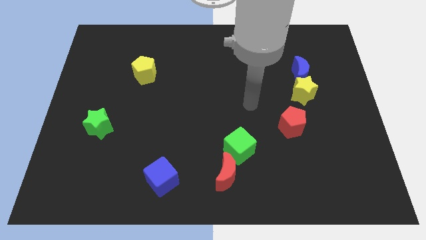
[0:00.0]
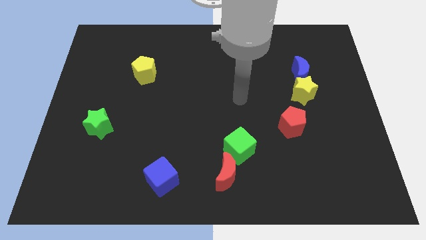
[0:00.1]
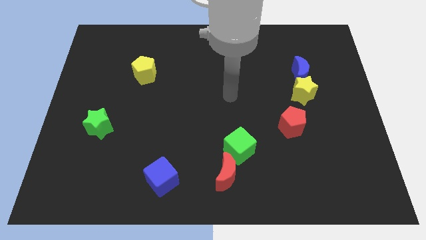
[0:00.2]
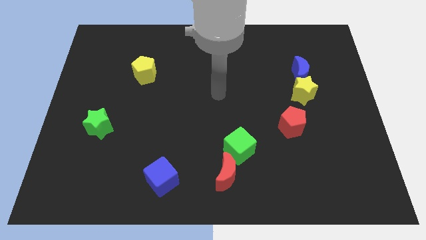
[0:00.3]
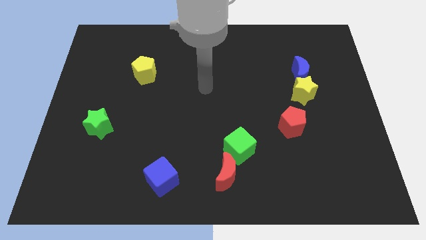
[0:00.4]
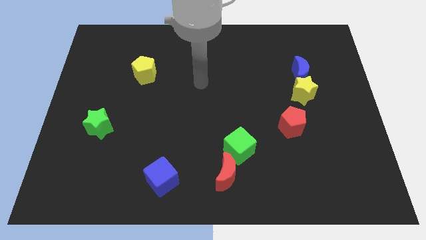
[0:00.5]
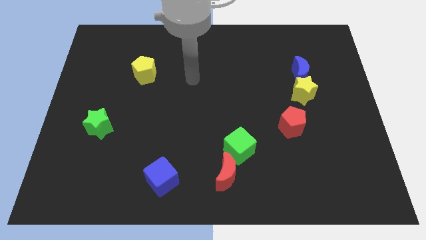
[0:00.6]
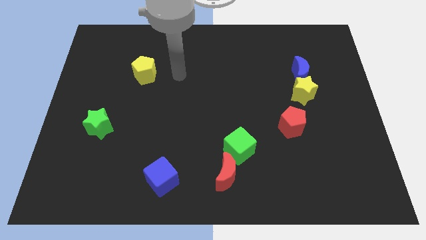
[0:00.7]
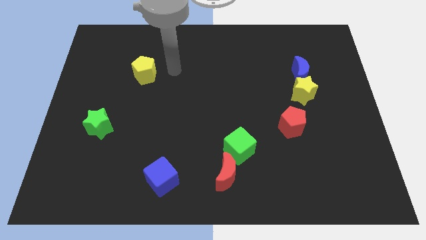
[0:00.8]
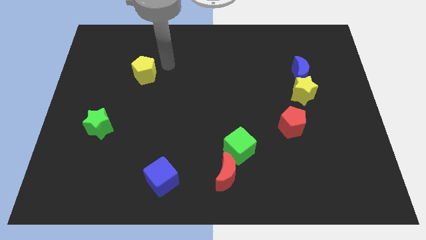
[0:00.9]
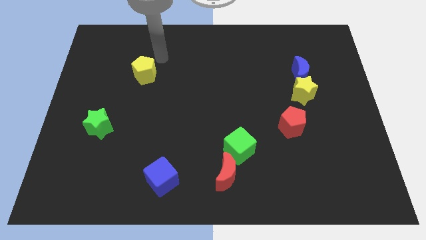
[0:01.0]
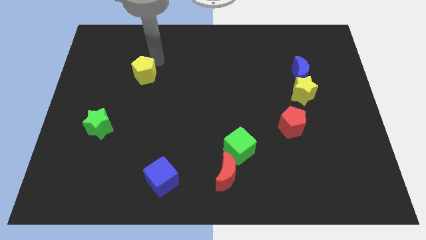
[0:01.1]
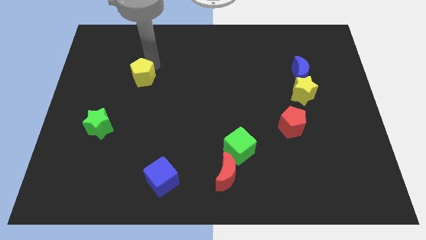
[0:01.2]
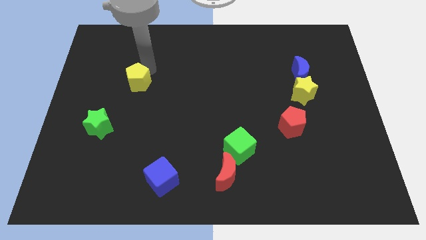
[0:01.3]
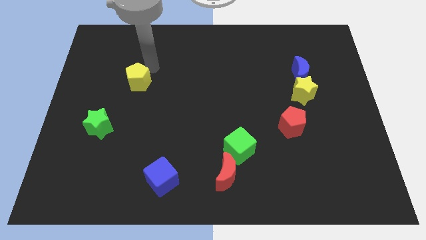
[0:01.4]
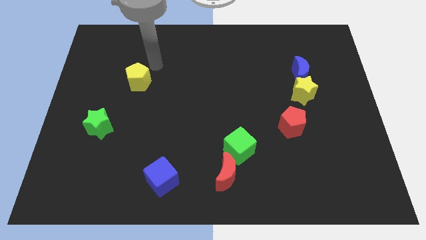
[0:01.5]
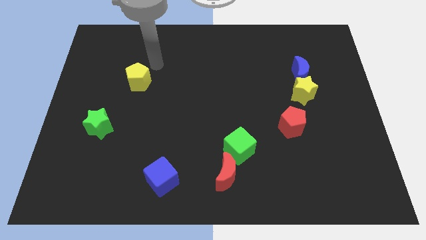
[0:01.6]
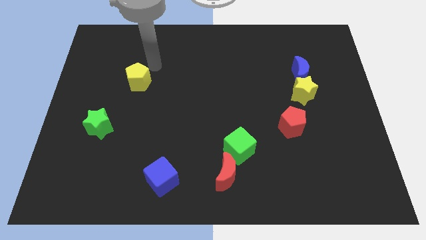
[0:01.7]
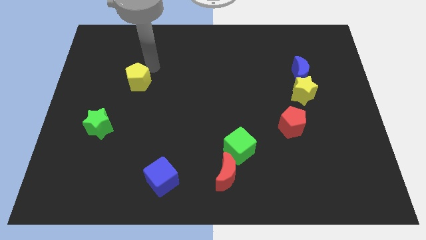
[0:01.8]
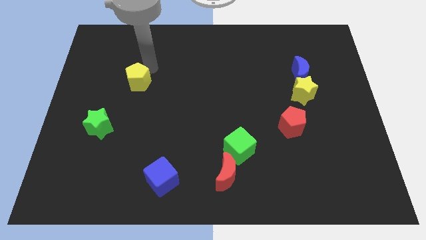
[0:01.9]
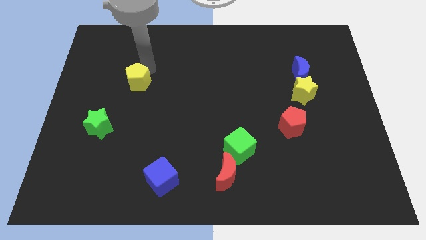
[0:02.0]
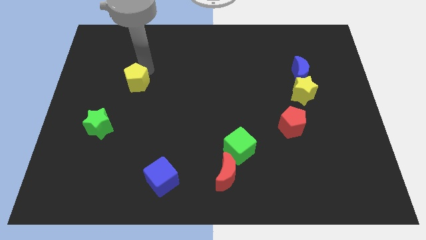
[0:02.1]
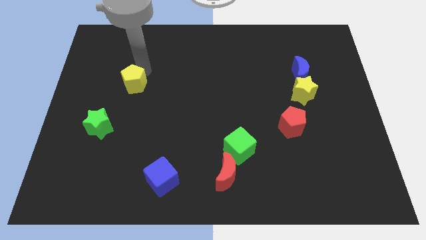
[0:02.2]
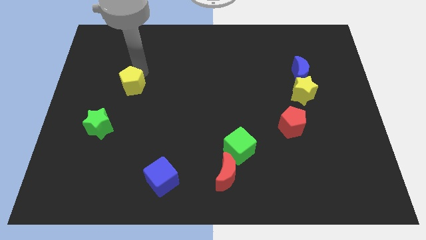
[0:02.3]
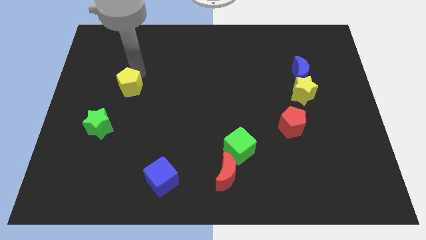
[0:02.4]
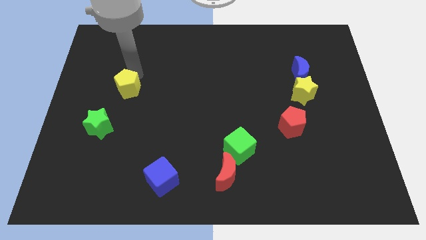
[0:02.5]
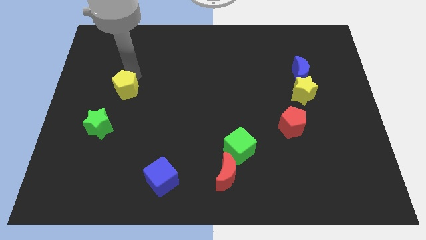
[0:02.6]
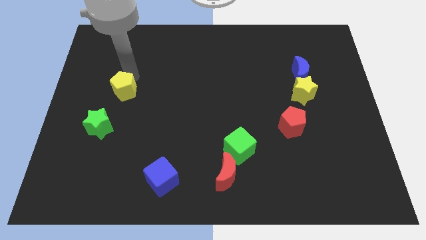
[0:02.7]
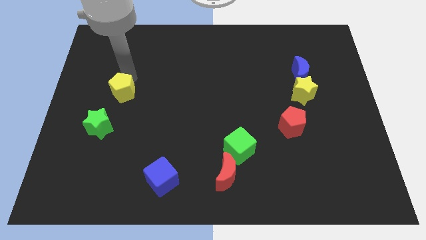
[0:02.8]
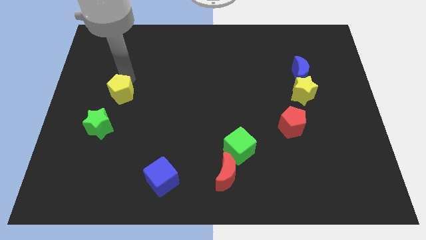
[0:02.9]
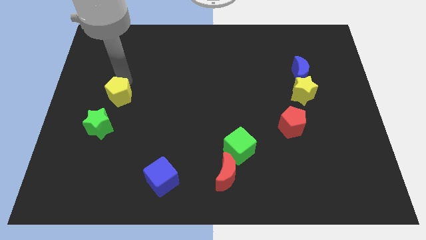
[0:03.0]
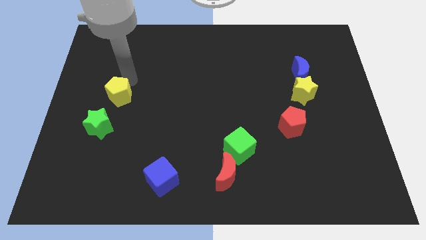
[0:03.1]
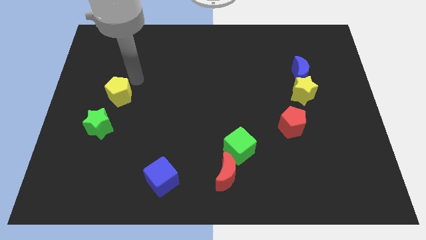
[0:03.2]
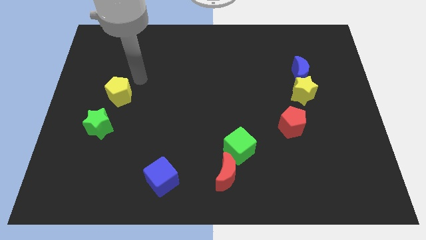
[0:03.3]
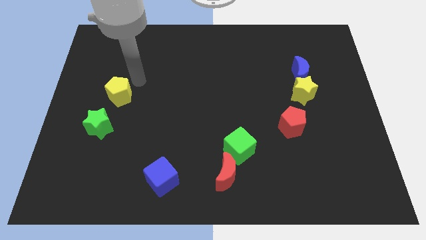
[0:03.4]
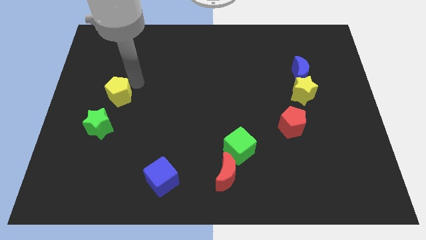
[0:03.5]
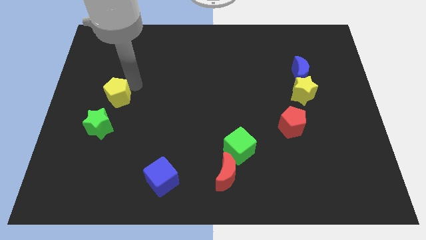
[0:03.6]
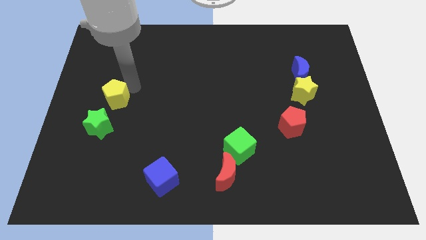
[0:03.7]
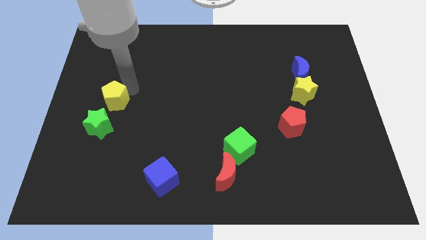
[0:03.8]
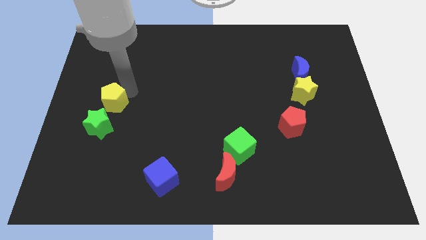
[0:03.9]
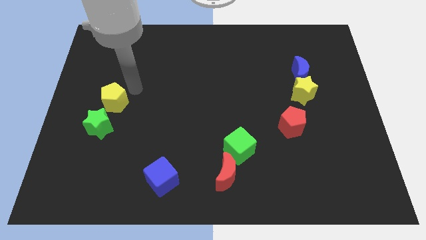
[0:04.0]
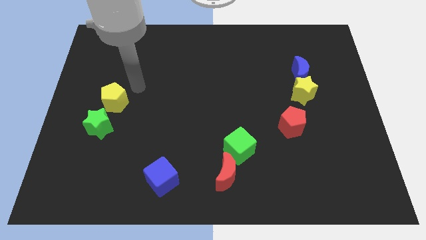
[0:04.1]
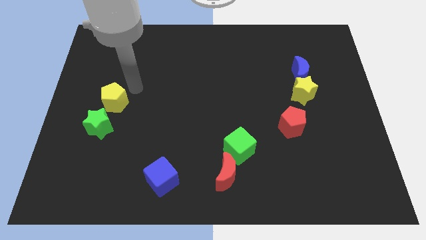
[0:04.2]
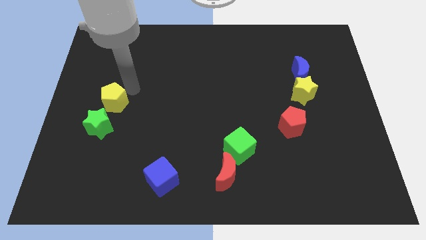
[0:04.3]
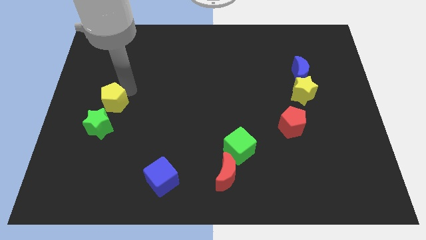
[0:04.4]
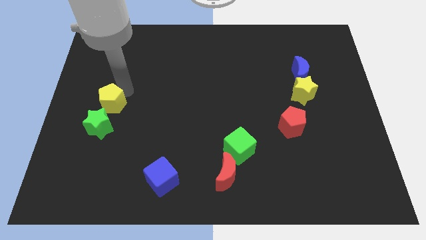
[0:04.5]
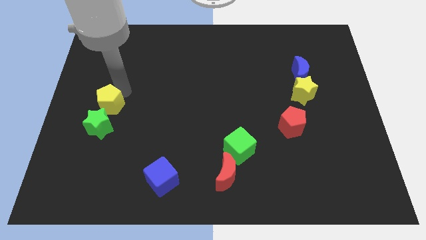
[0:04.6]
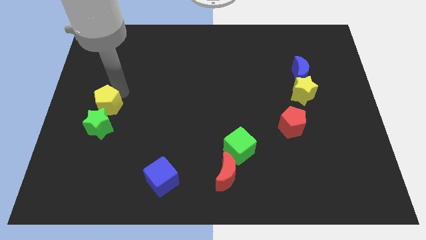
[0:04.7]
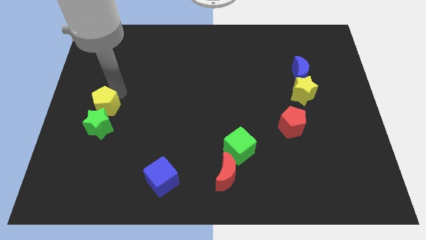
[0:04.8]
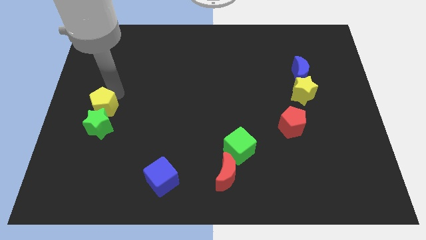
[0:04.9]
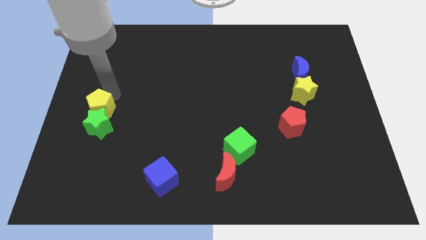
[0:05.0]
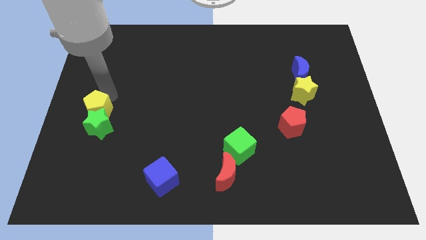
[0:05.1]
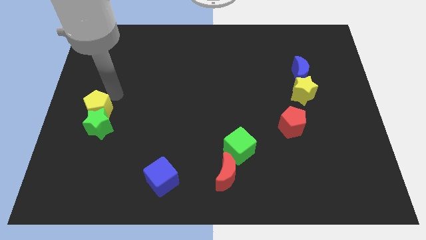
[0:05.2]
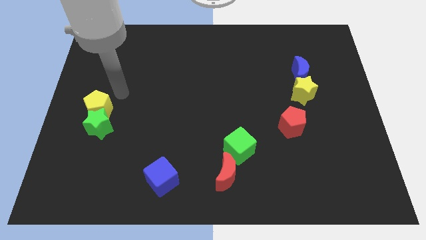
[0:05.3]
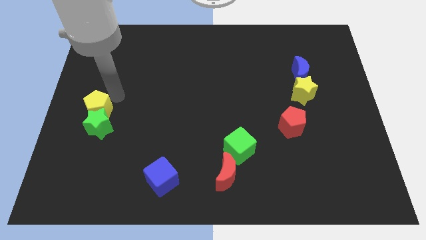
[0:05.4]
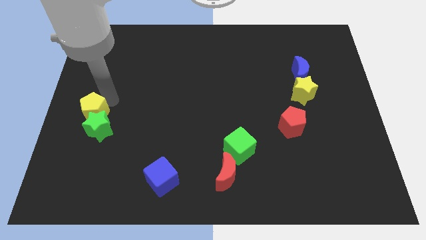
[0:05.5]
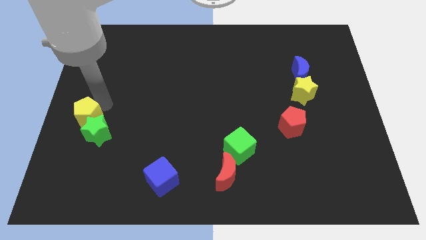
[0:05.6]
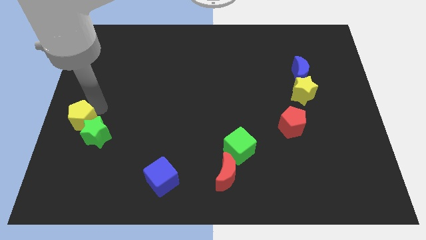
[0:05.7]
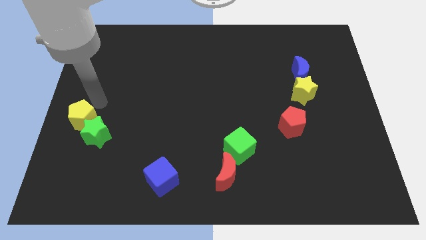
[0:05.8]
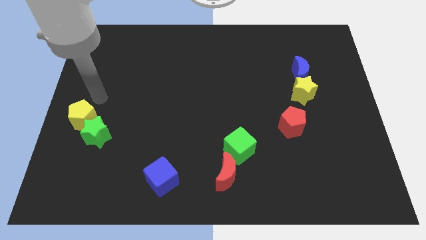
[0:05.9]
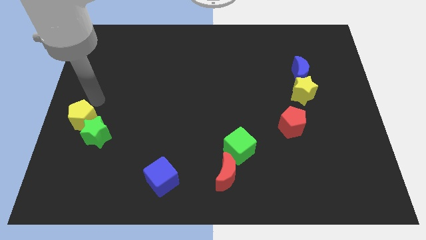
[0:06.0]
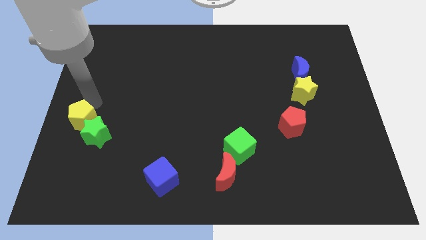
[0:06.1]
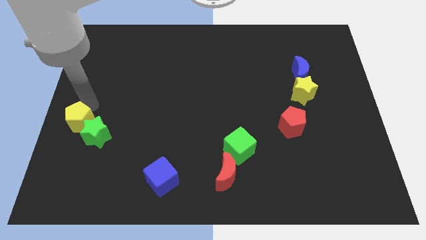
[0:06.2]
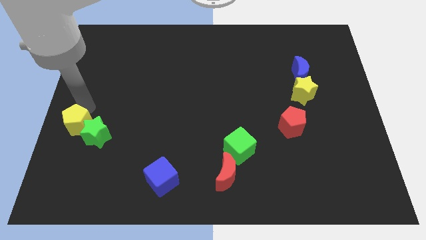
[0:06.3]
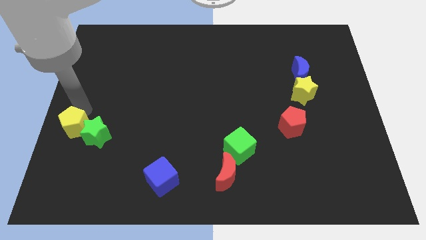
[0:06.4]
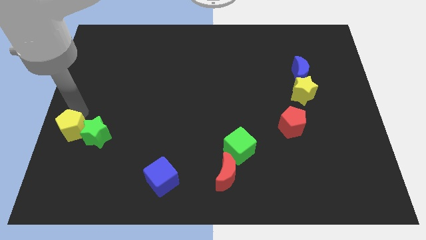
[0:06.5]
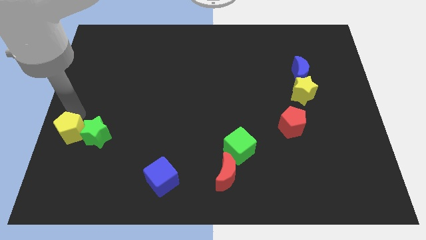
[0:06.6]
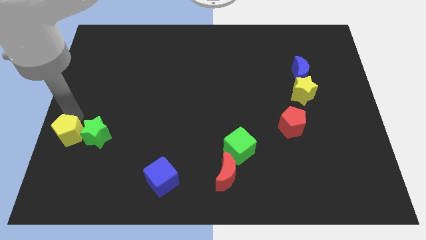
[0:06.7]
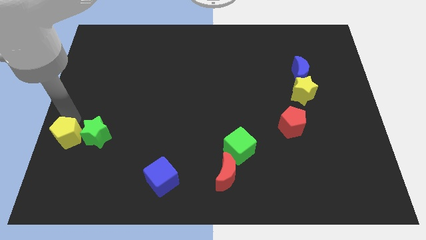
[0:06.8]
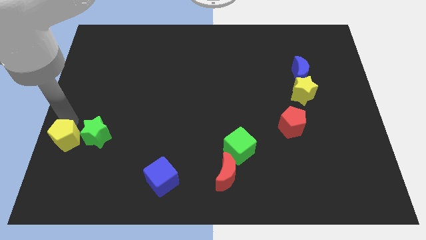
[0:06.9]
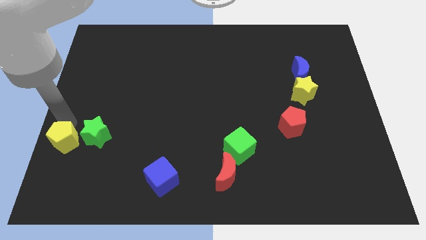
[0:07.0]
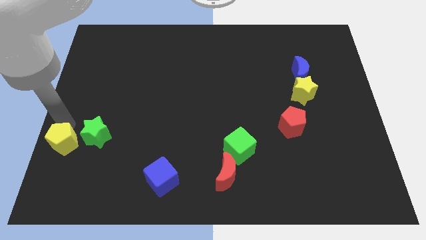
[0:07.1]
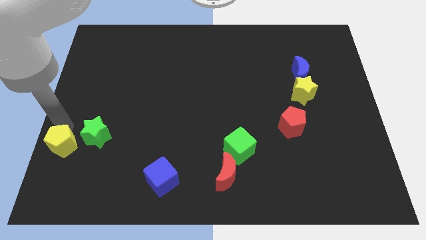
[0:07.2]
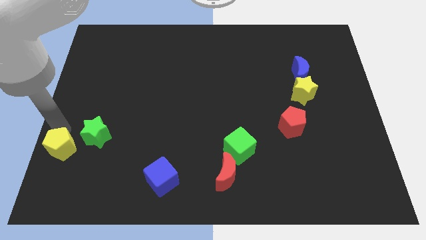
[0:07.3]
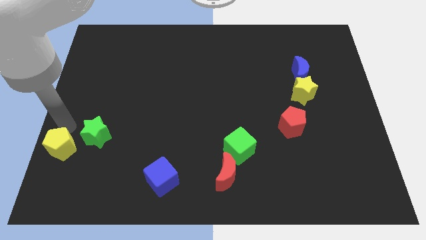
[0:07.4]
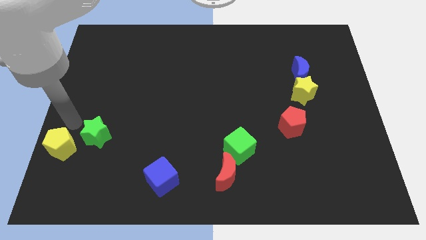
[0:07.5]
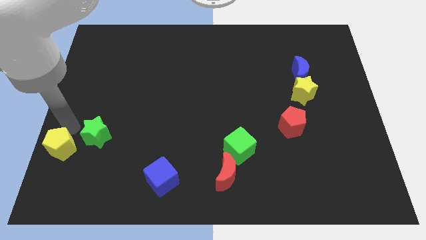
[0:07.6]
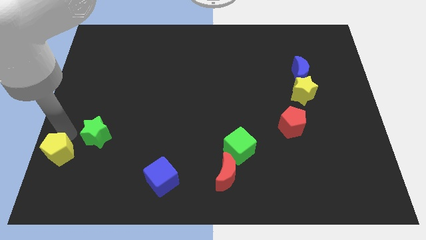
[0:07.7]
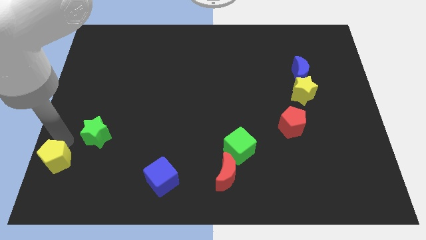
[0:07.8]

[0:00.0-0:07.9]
move the yellow pentagon to the bottom left
